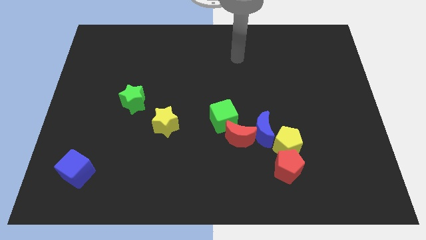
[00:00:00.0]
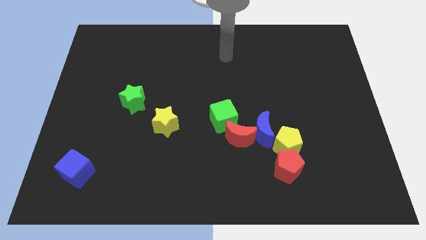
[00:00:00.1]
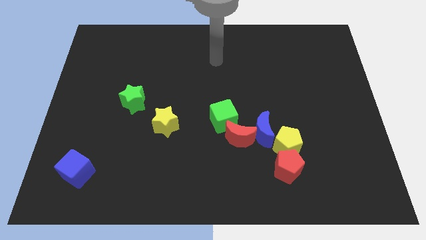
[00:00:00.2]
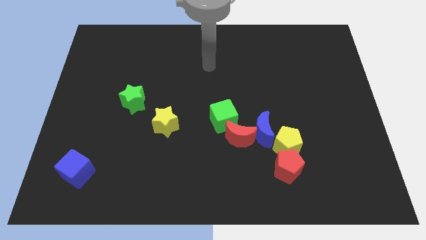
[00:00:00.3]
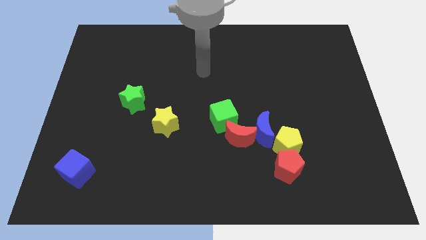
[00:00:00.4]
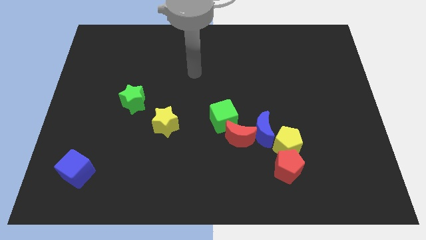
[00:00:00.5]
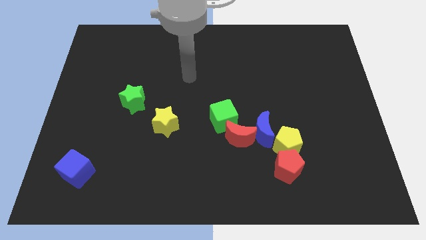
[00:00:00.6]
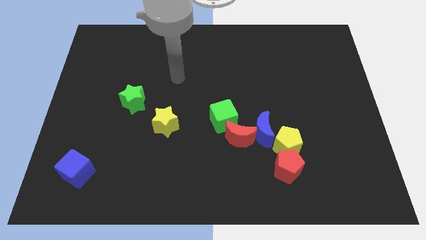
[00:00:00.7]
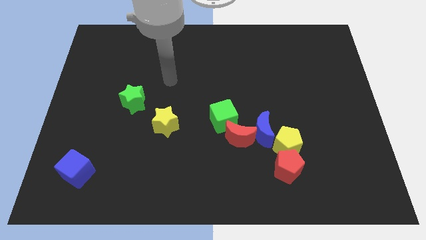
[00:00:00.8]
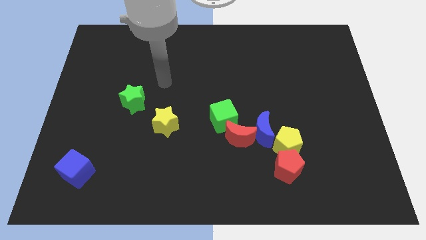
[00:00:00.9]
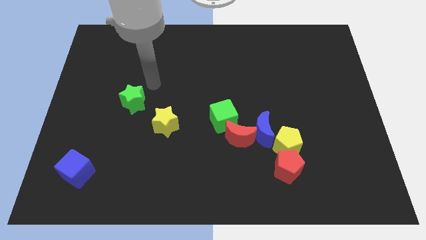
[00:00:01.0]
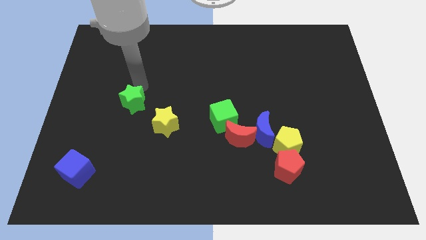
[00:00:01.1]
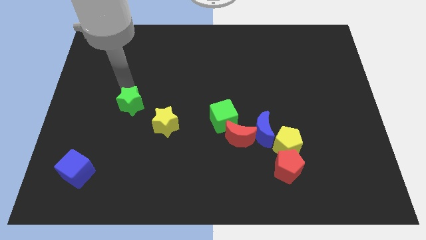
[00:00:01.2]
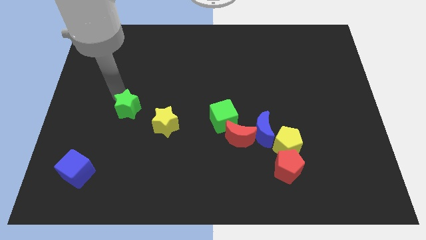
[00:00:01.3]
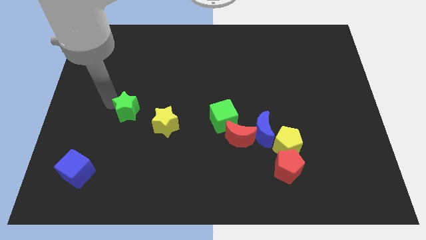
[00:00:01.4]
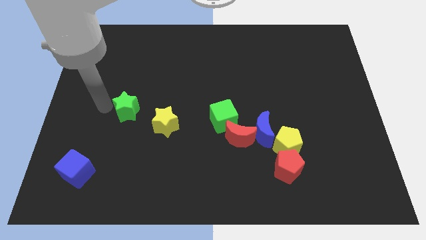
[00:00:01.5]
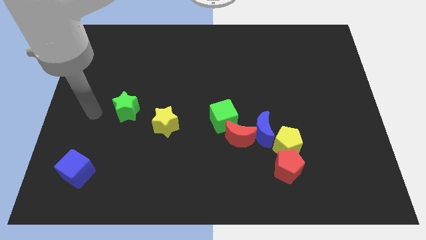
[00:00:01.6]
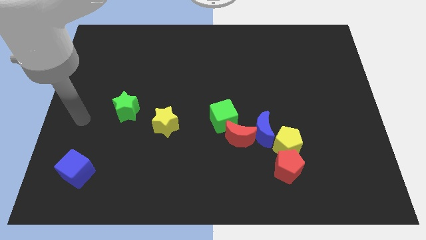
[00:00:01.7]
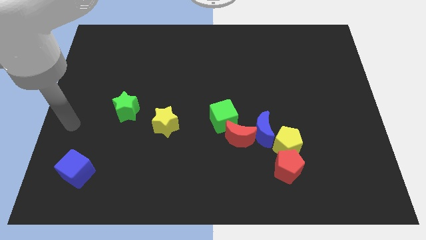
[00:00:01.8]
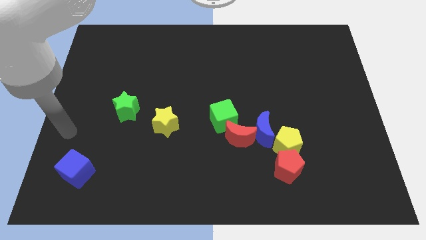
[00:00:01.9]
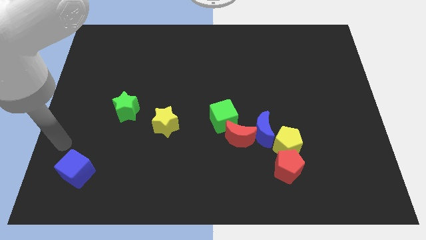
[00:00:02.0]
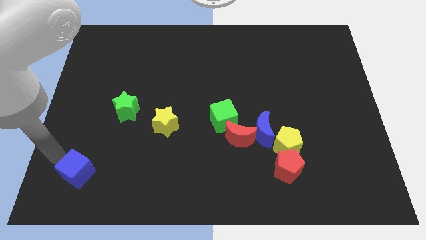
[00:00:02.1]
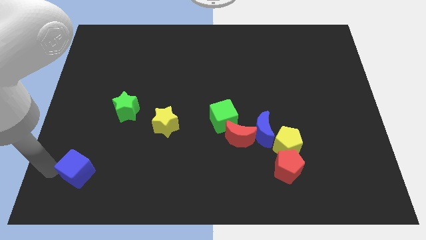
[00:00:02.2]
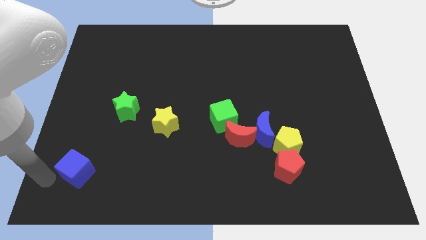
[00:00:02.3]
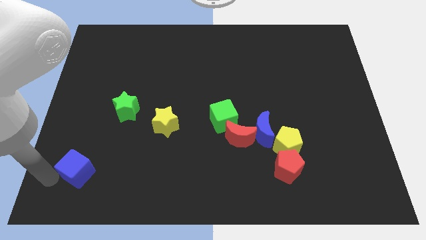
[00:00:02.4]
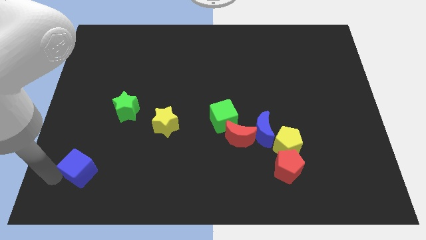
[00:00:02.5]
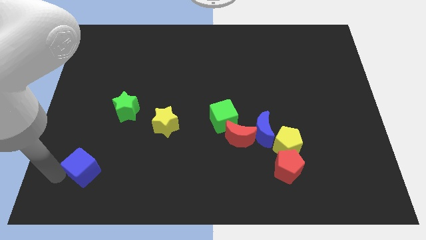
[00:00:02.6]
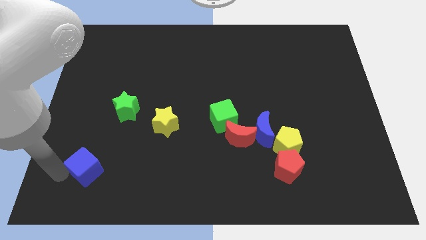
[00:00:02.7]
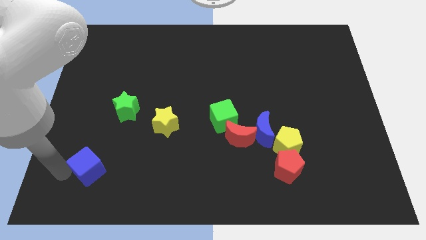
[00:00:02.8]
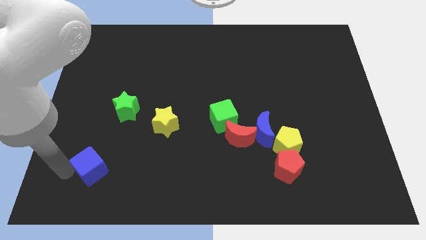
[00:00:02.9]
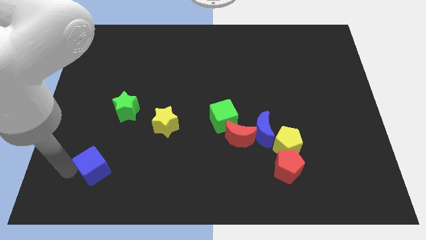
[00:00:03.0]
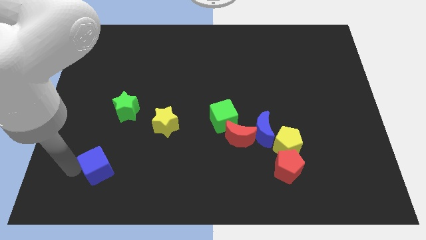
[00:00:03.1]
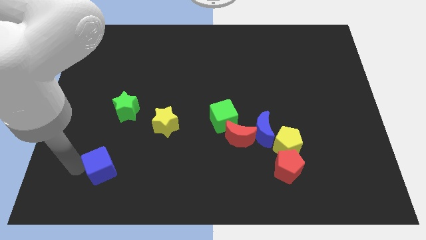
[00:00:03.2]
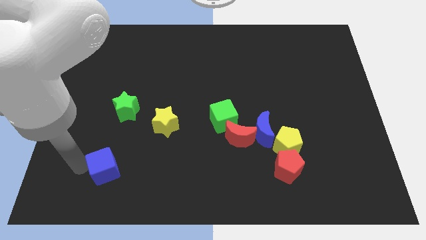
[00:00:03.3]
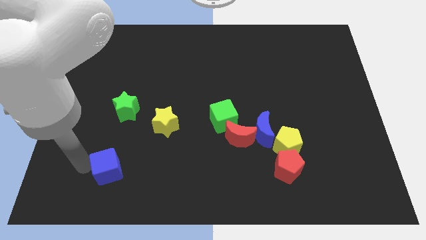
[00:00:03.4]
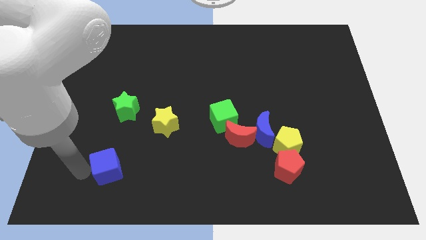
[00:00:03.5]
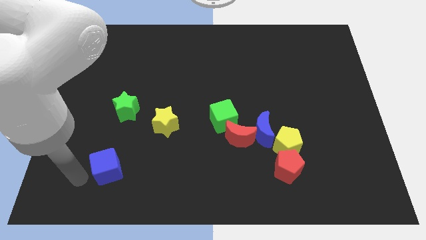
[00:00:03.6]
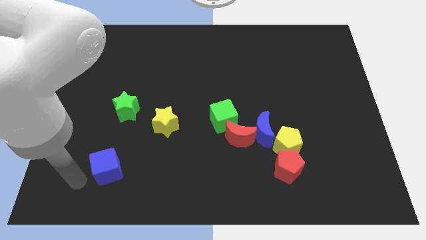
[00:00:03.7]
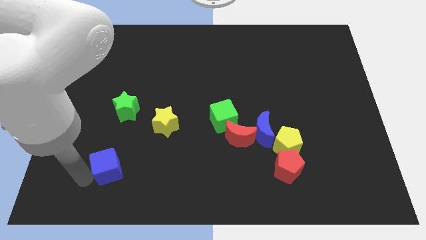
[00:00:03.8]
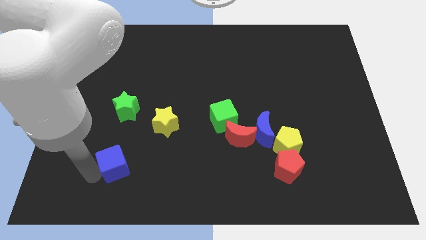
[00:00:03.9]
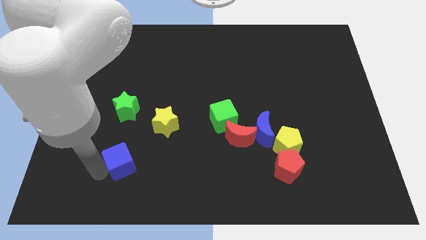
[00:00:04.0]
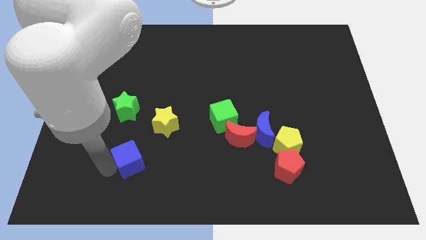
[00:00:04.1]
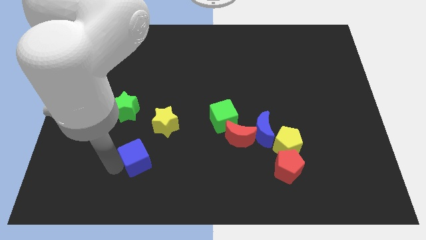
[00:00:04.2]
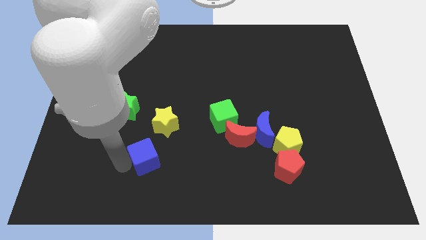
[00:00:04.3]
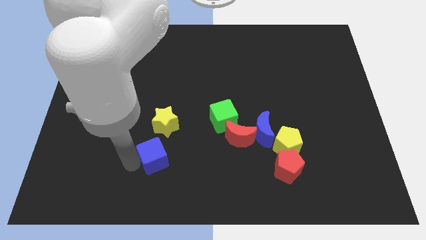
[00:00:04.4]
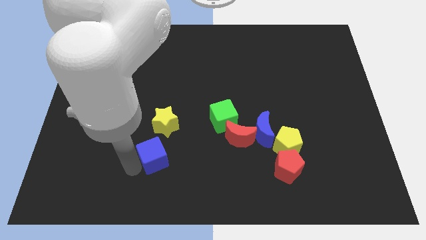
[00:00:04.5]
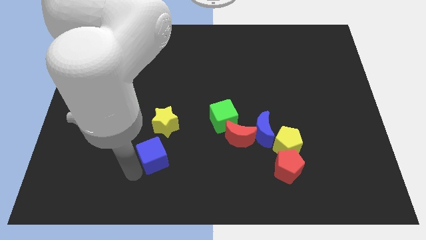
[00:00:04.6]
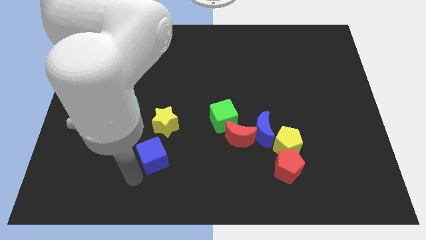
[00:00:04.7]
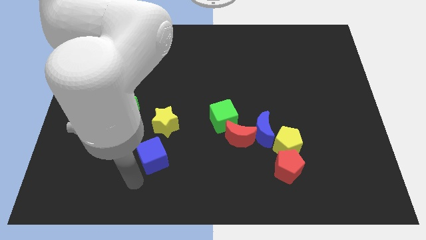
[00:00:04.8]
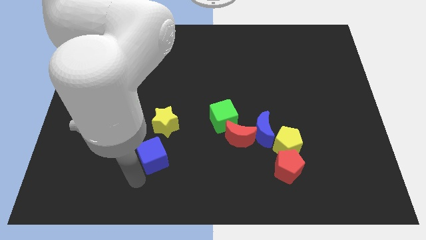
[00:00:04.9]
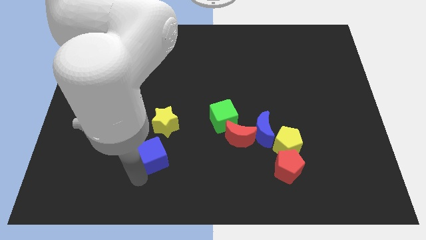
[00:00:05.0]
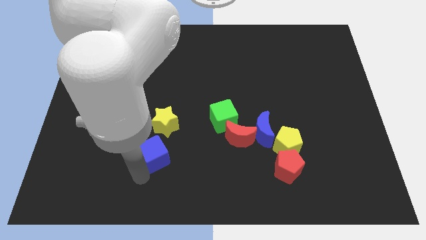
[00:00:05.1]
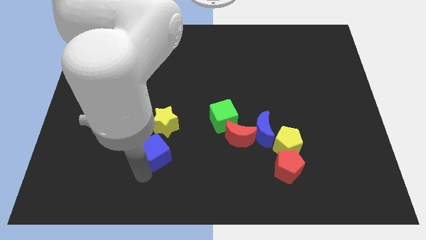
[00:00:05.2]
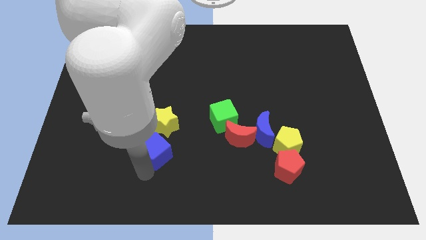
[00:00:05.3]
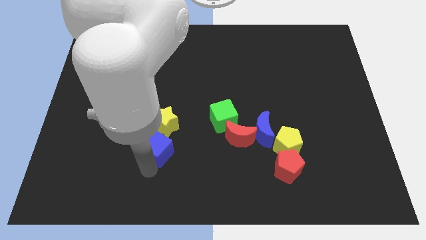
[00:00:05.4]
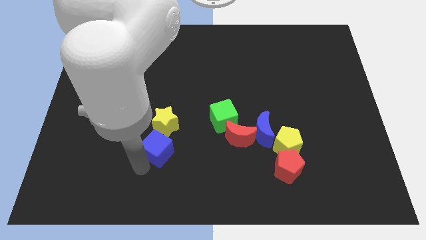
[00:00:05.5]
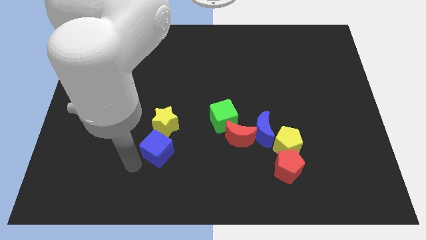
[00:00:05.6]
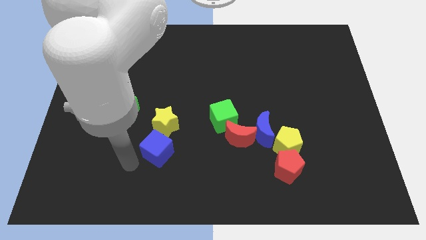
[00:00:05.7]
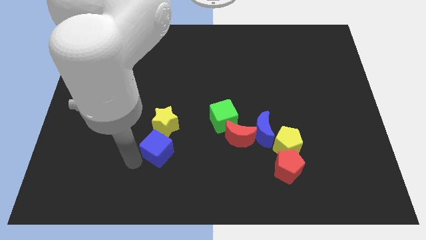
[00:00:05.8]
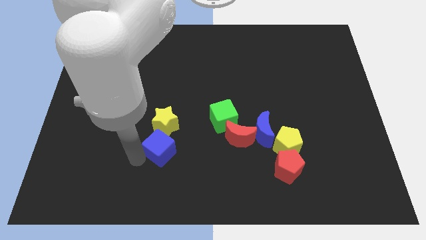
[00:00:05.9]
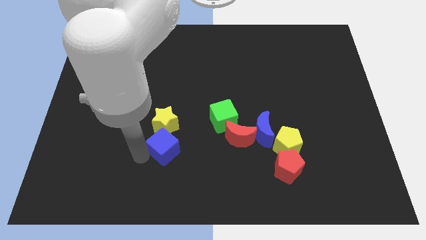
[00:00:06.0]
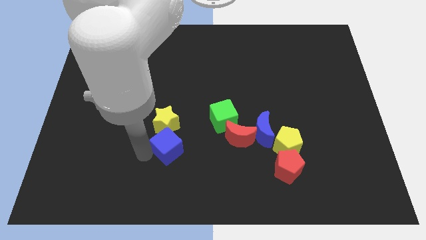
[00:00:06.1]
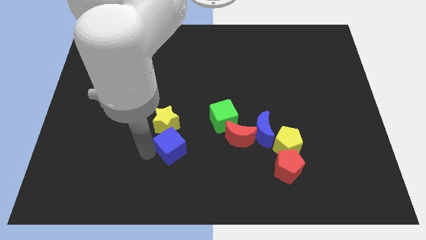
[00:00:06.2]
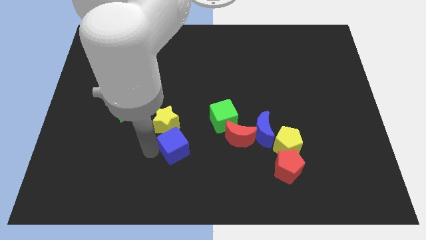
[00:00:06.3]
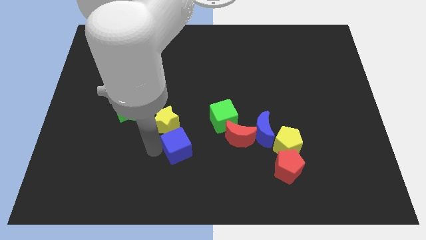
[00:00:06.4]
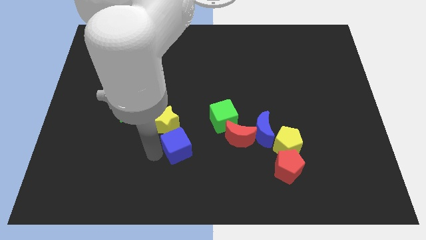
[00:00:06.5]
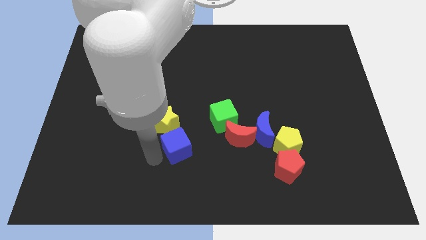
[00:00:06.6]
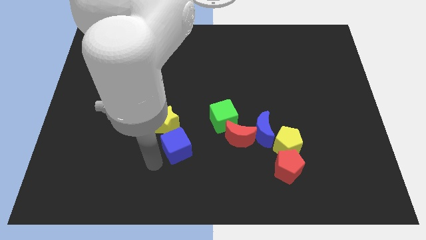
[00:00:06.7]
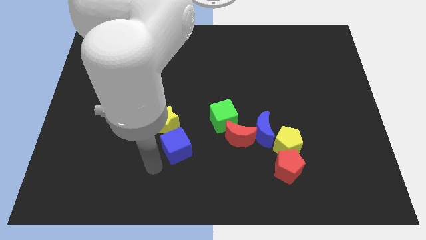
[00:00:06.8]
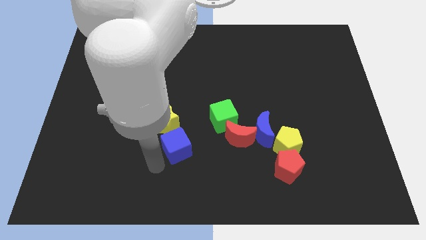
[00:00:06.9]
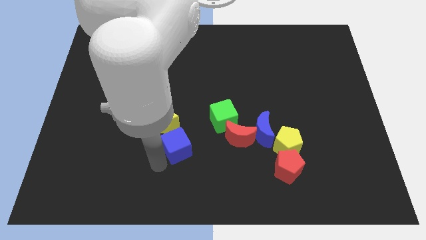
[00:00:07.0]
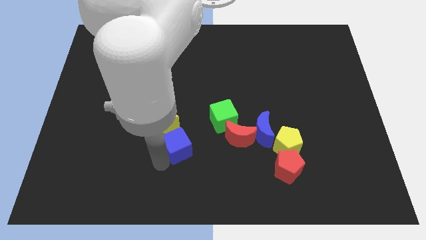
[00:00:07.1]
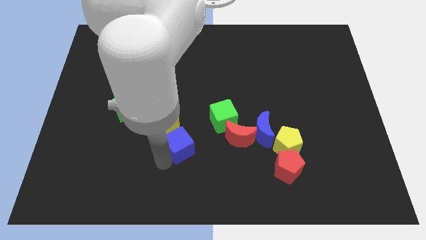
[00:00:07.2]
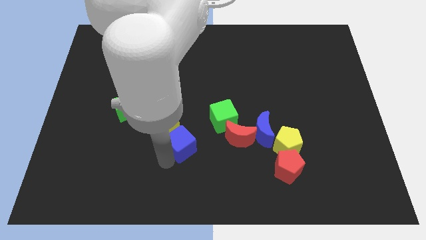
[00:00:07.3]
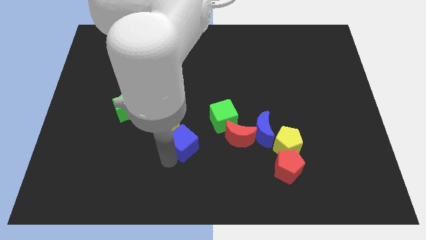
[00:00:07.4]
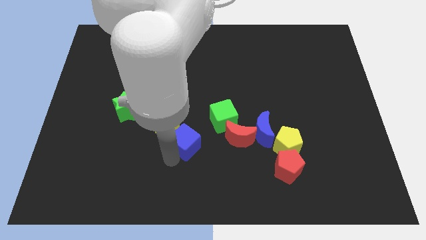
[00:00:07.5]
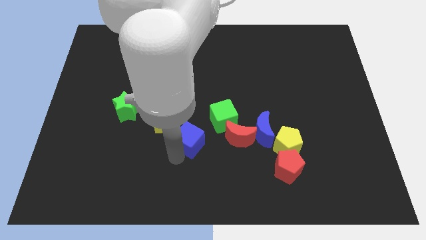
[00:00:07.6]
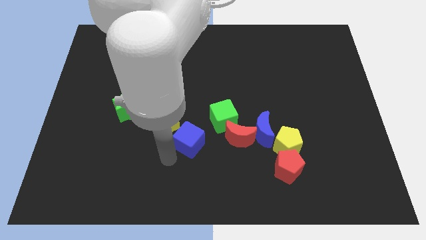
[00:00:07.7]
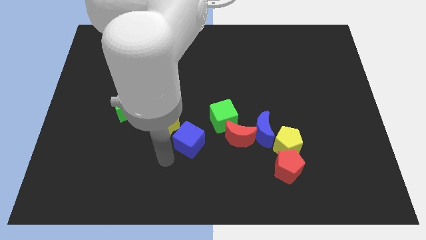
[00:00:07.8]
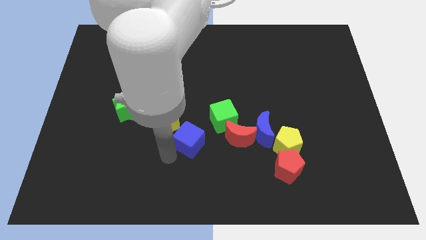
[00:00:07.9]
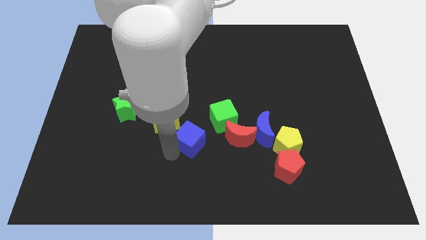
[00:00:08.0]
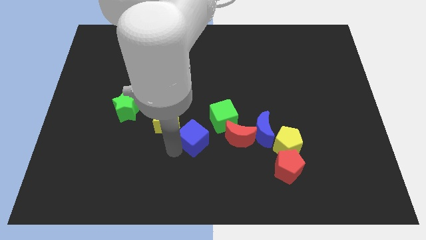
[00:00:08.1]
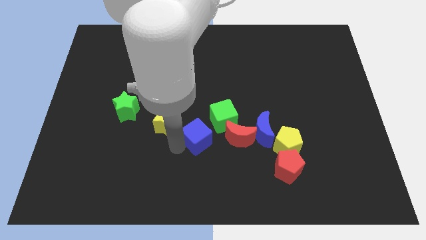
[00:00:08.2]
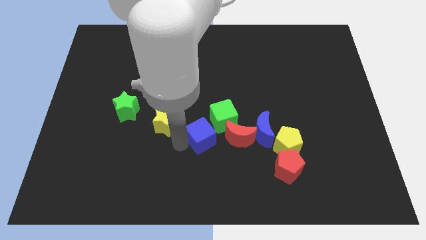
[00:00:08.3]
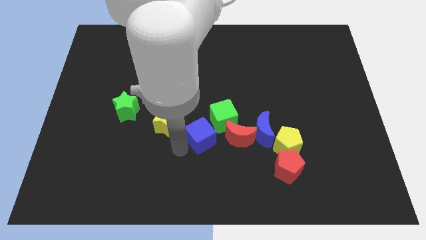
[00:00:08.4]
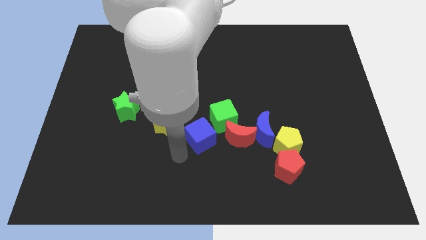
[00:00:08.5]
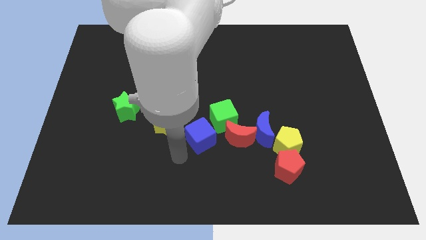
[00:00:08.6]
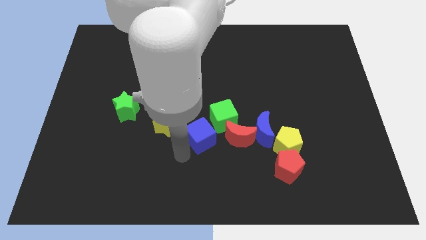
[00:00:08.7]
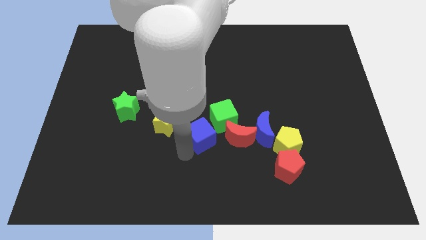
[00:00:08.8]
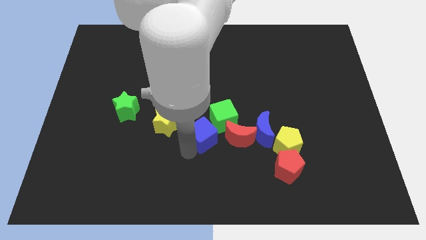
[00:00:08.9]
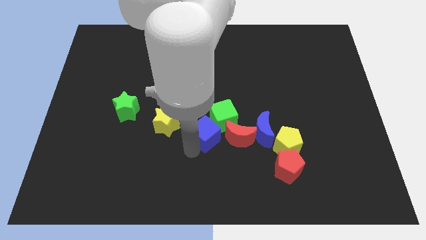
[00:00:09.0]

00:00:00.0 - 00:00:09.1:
put the blue cube next to the green cube
